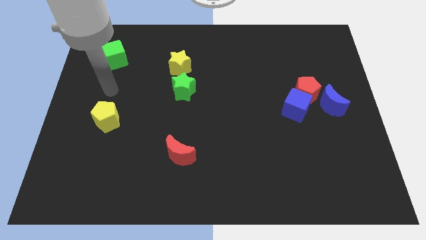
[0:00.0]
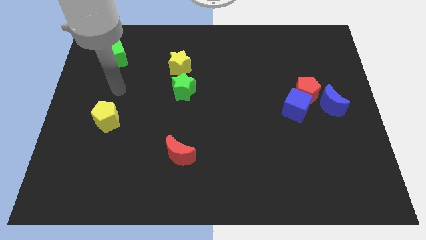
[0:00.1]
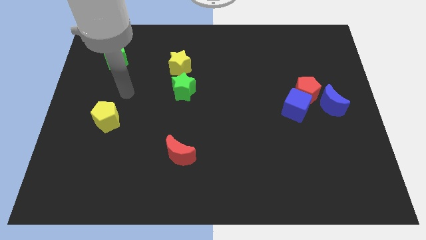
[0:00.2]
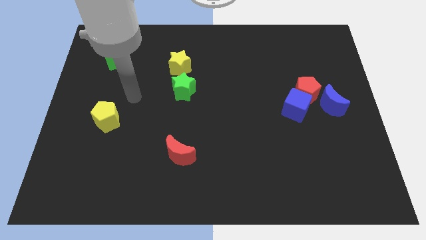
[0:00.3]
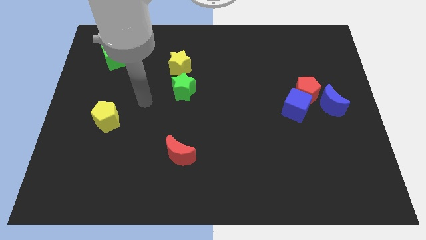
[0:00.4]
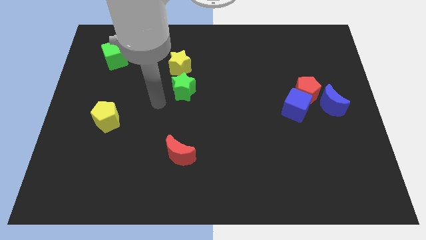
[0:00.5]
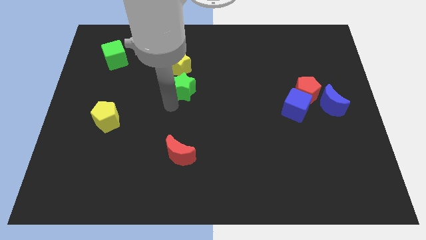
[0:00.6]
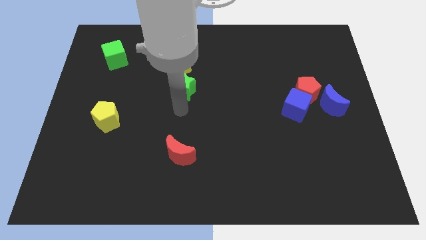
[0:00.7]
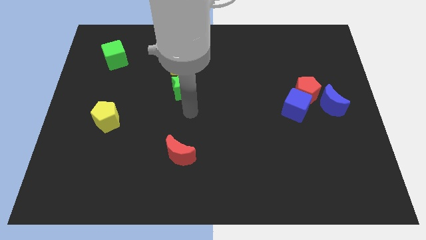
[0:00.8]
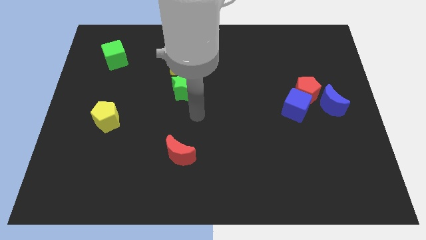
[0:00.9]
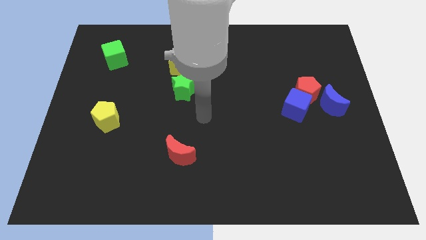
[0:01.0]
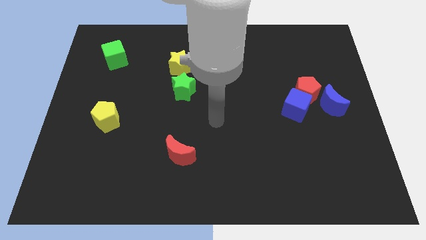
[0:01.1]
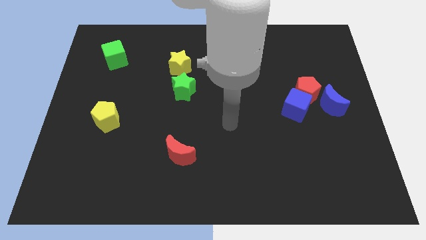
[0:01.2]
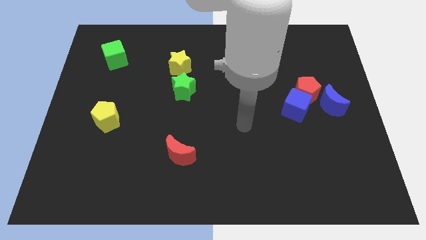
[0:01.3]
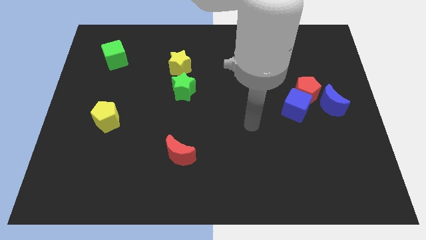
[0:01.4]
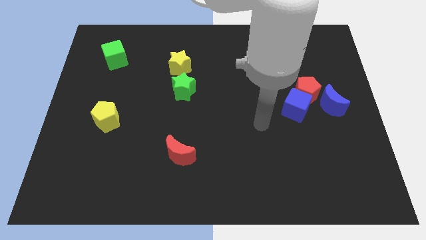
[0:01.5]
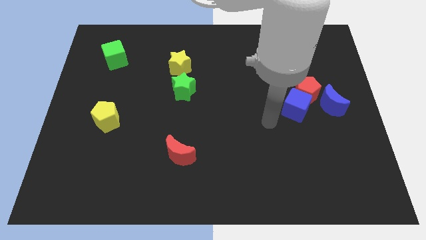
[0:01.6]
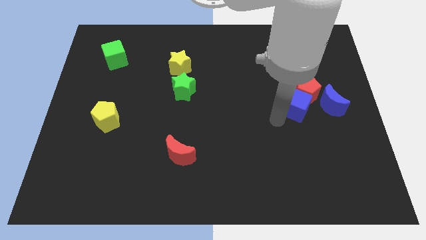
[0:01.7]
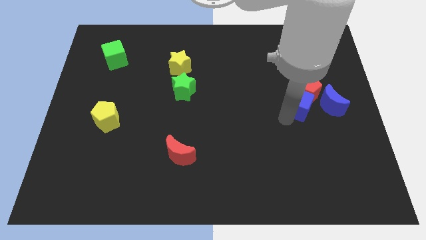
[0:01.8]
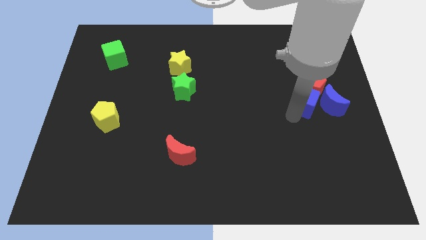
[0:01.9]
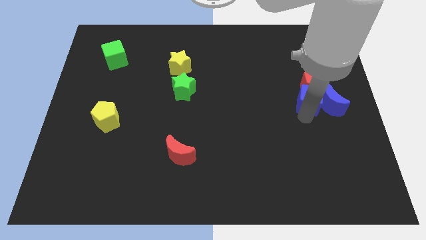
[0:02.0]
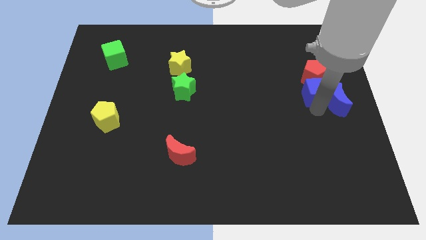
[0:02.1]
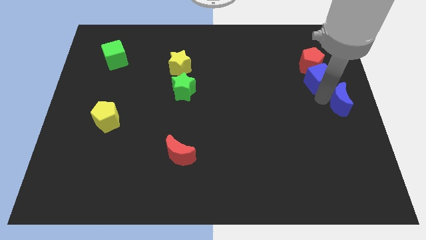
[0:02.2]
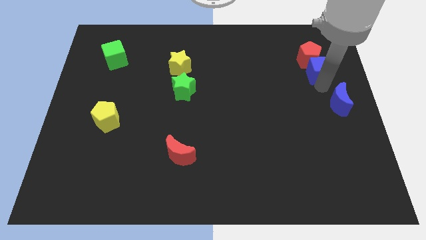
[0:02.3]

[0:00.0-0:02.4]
move the red pentagon away from the blue cube and blue moon

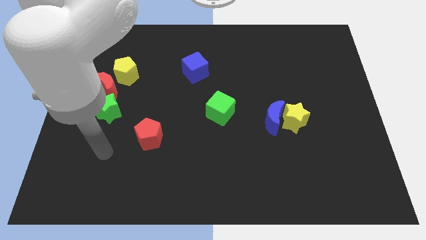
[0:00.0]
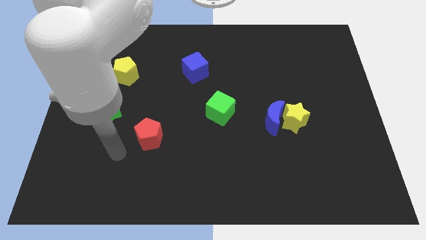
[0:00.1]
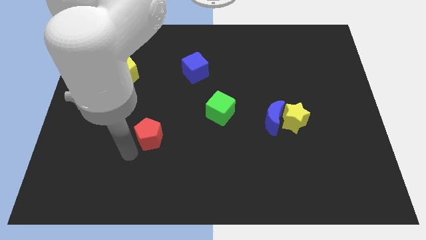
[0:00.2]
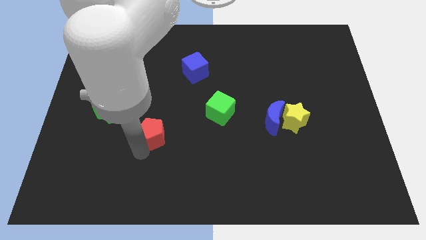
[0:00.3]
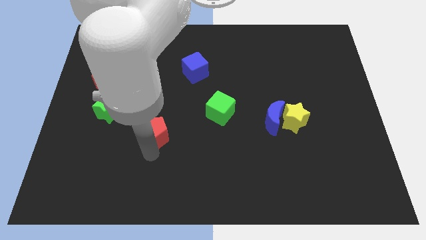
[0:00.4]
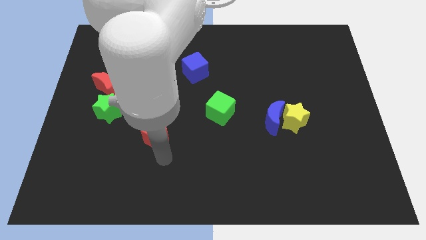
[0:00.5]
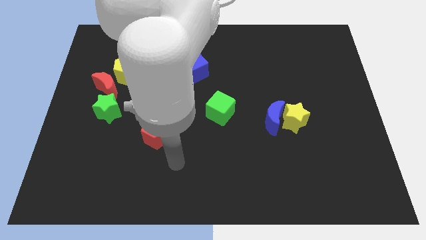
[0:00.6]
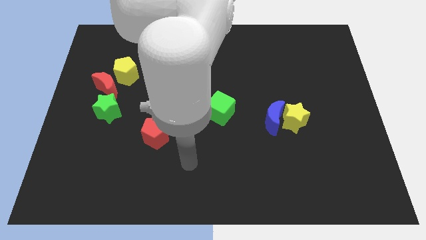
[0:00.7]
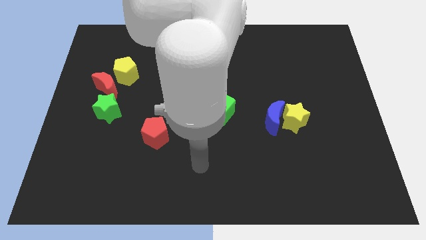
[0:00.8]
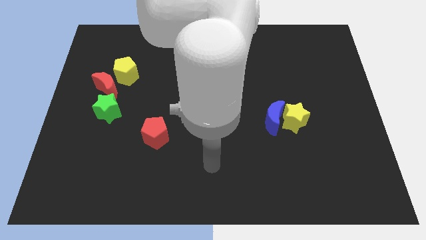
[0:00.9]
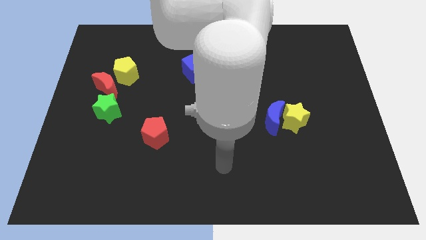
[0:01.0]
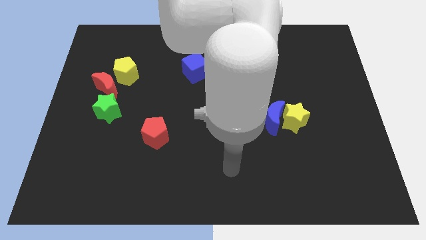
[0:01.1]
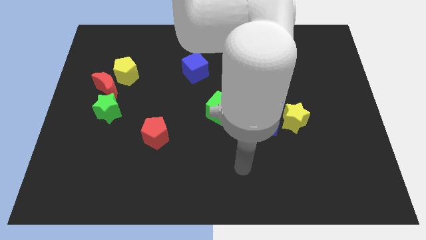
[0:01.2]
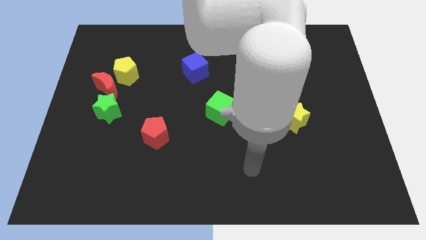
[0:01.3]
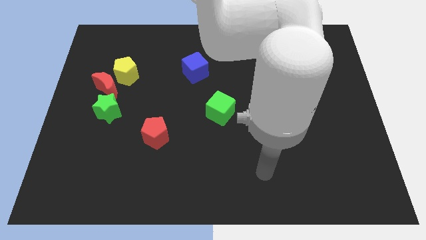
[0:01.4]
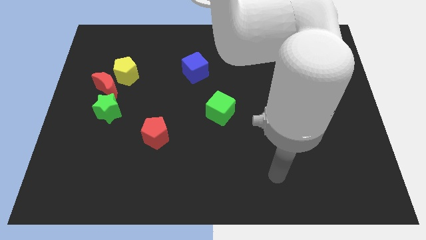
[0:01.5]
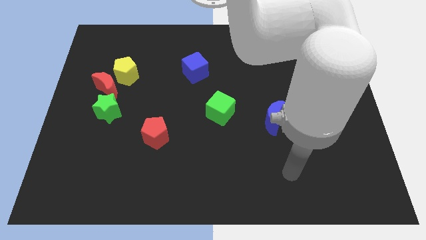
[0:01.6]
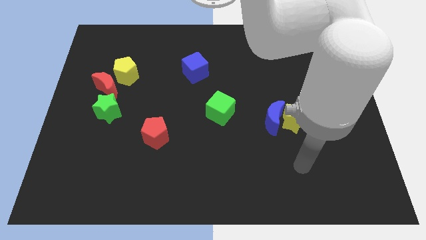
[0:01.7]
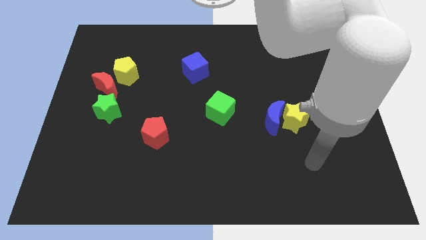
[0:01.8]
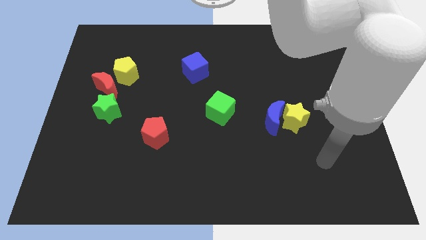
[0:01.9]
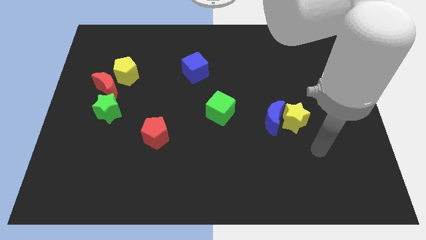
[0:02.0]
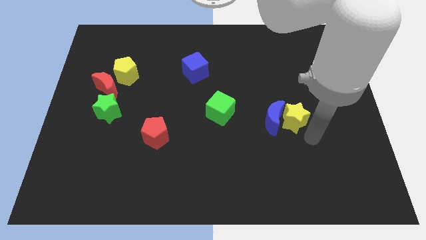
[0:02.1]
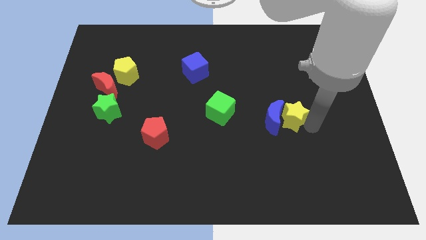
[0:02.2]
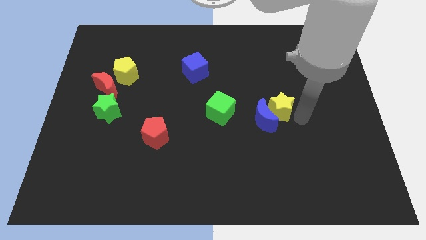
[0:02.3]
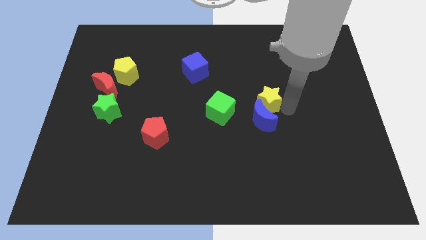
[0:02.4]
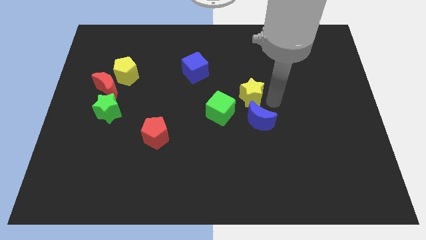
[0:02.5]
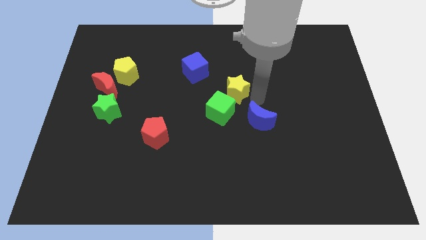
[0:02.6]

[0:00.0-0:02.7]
separate the blue moon from the yellow star

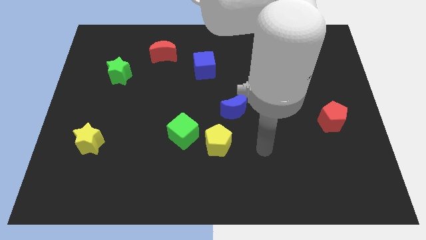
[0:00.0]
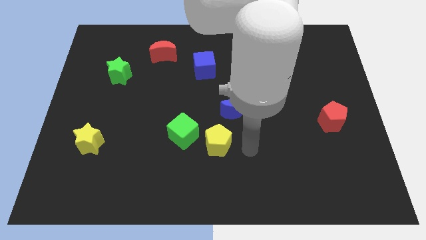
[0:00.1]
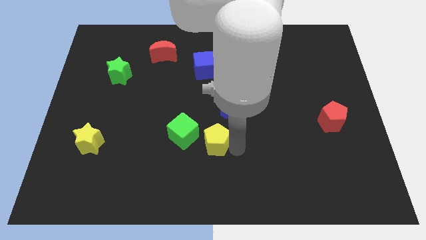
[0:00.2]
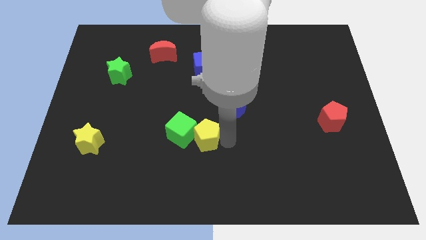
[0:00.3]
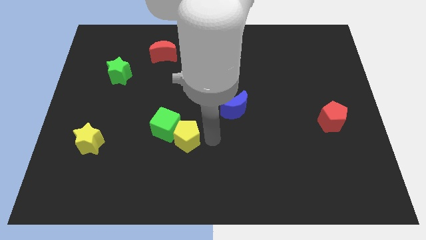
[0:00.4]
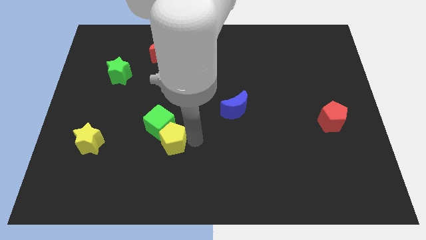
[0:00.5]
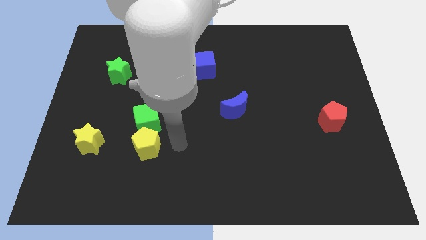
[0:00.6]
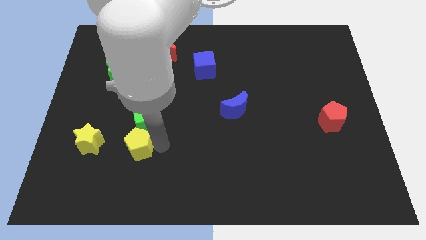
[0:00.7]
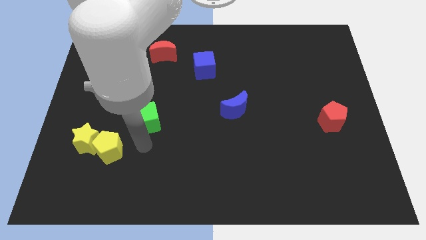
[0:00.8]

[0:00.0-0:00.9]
separate the green cube from the yellow pentagon

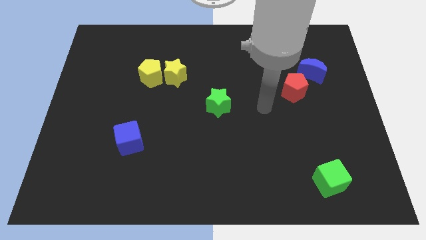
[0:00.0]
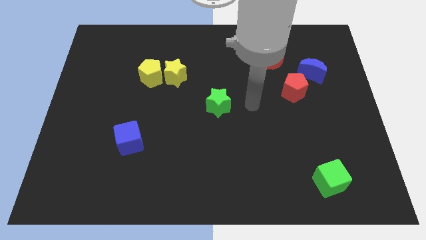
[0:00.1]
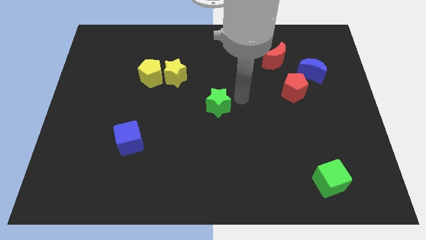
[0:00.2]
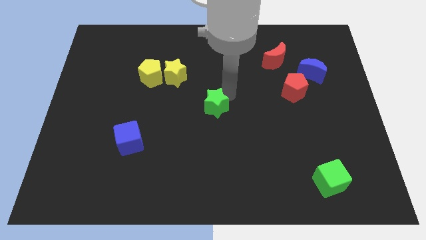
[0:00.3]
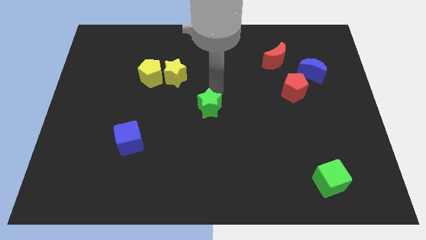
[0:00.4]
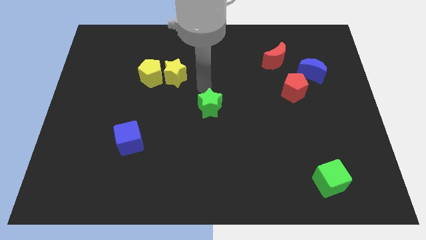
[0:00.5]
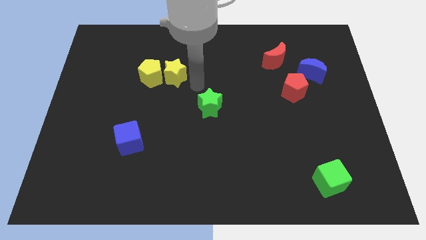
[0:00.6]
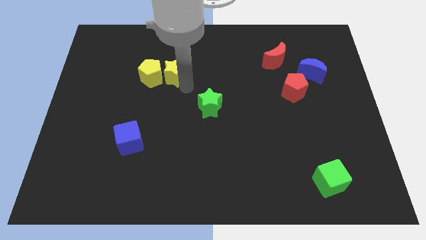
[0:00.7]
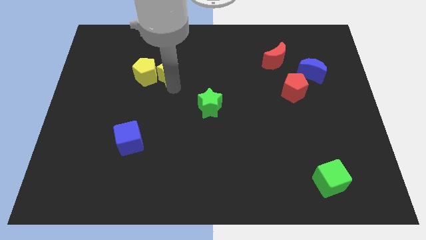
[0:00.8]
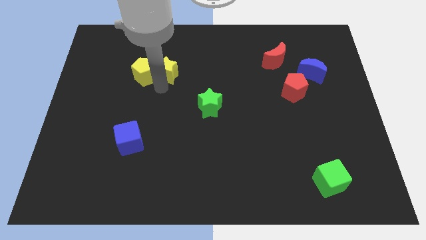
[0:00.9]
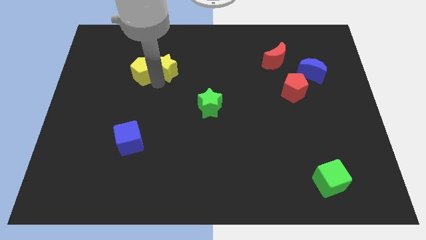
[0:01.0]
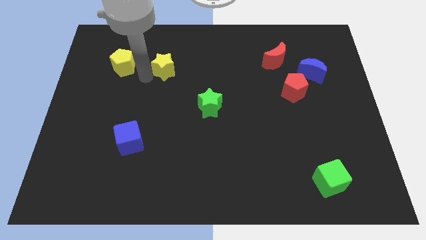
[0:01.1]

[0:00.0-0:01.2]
separate the yellow star from the yellow pentagon

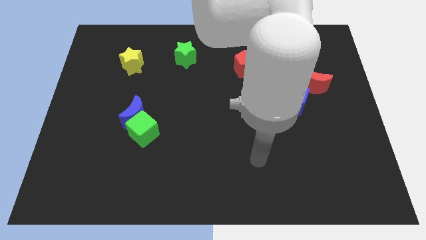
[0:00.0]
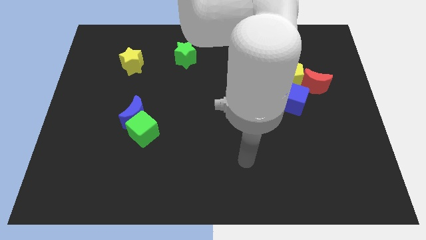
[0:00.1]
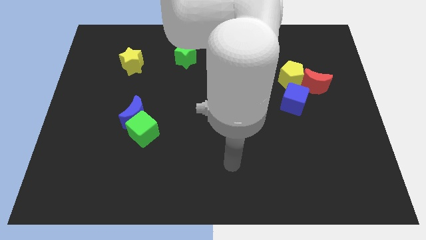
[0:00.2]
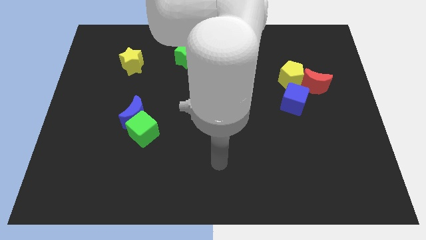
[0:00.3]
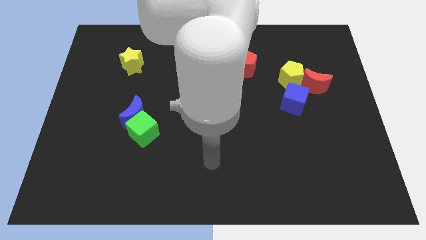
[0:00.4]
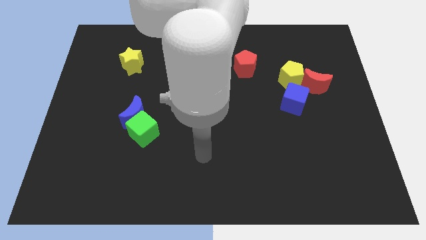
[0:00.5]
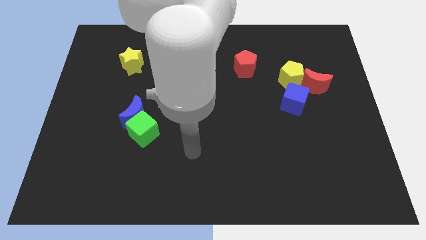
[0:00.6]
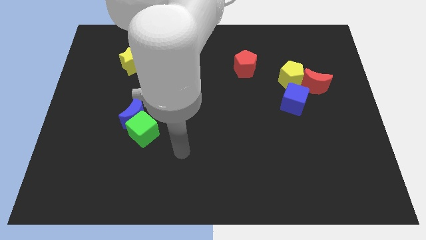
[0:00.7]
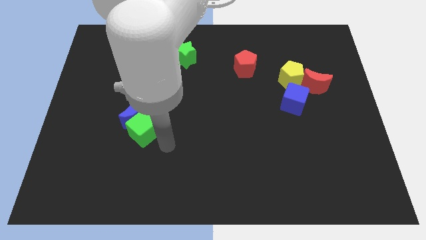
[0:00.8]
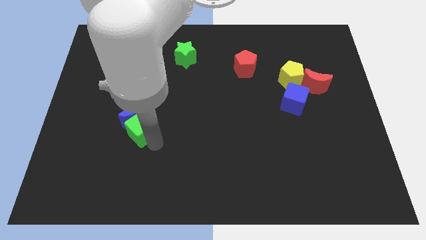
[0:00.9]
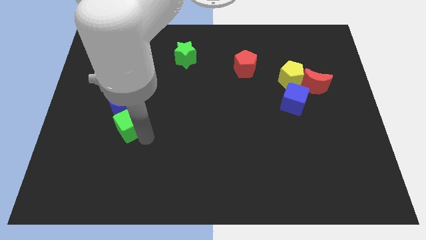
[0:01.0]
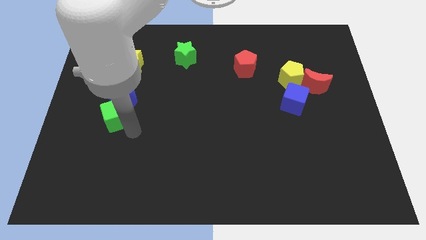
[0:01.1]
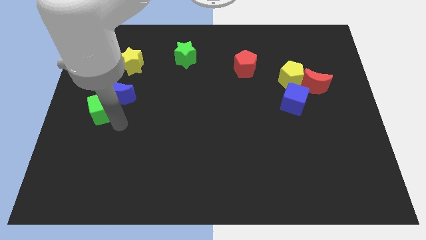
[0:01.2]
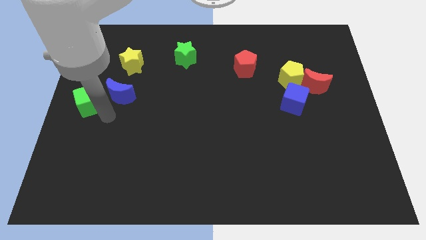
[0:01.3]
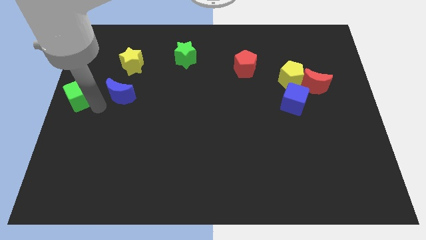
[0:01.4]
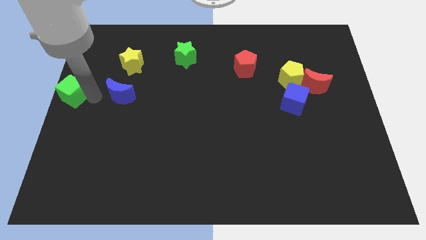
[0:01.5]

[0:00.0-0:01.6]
pull the blue moon apart from the green cube

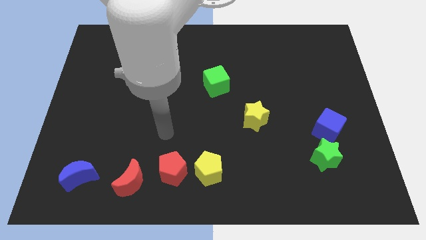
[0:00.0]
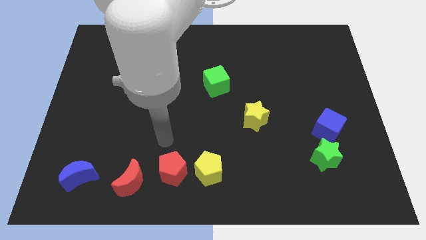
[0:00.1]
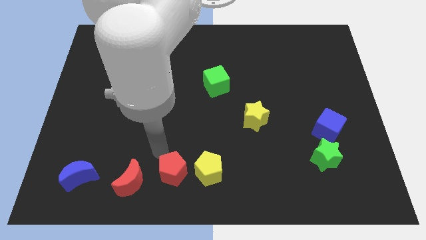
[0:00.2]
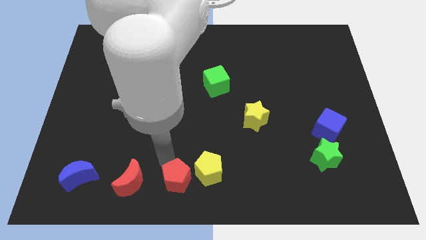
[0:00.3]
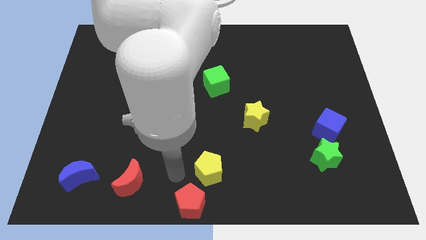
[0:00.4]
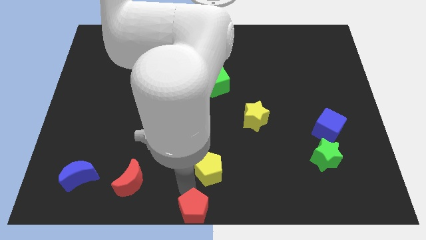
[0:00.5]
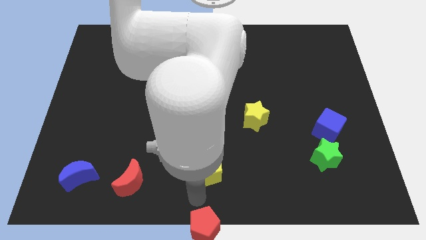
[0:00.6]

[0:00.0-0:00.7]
move the yellow pentagon away from the red pentagon
